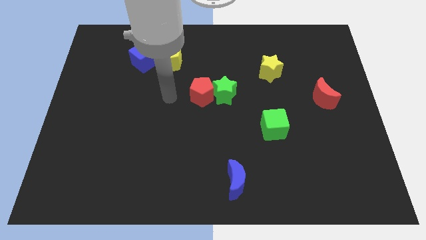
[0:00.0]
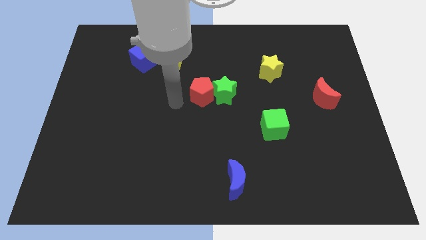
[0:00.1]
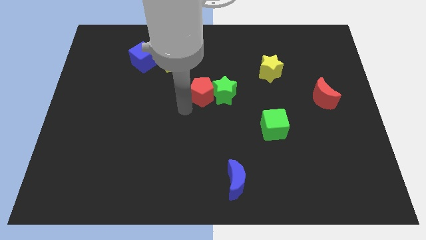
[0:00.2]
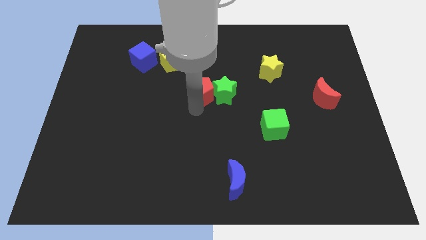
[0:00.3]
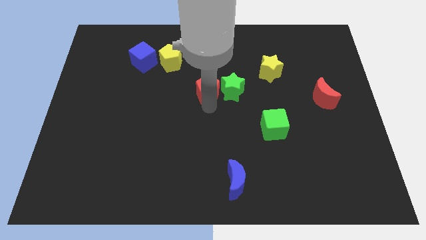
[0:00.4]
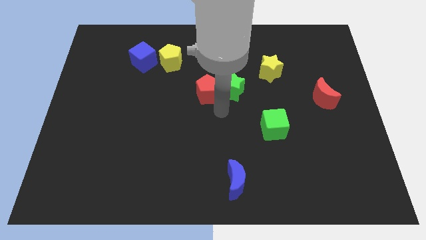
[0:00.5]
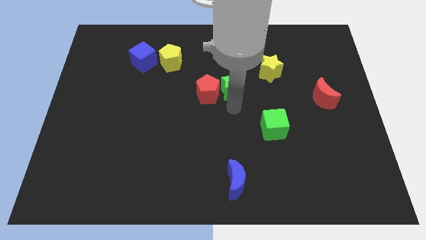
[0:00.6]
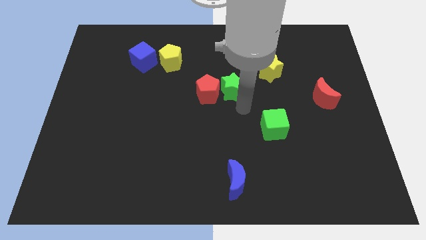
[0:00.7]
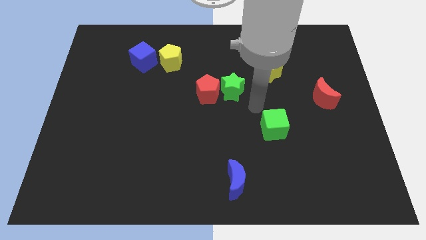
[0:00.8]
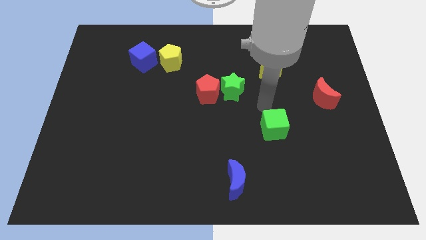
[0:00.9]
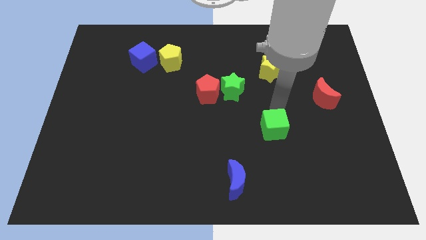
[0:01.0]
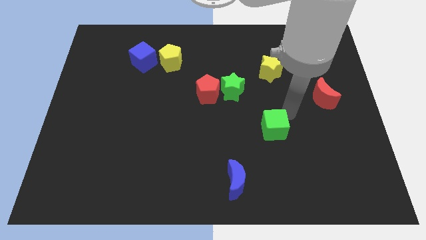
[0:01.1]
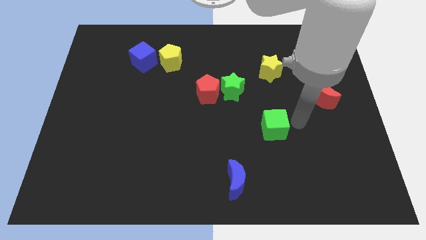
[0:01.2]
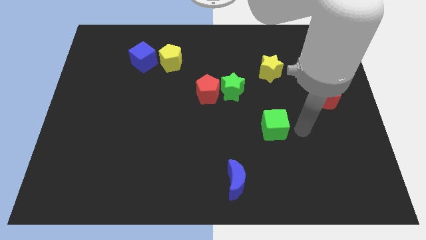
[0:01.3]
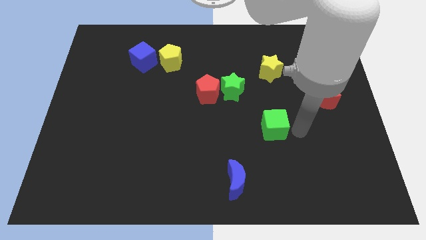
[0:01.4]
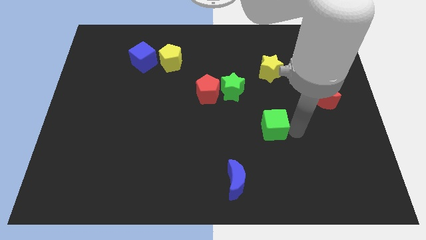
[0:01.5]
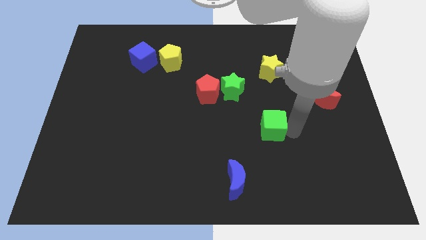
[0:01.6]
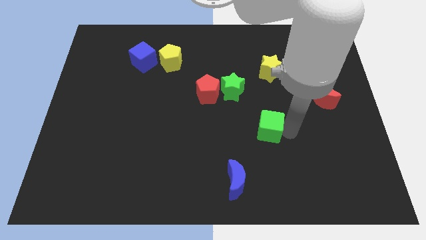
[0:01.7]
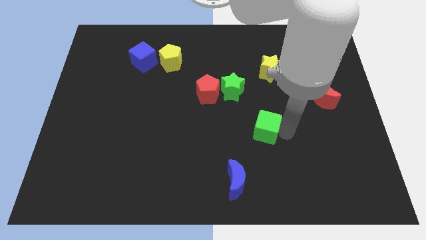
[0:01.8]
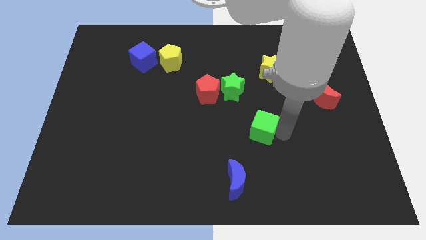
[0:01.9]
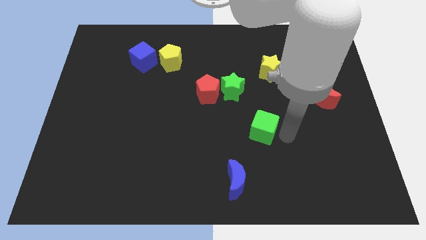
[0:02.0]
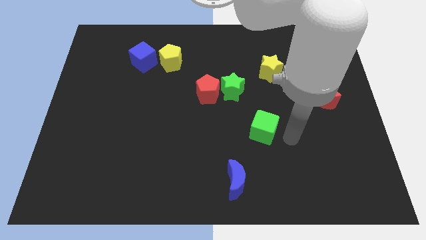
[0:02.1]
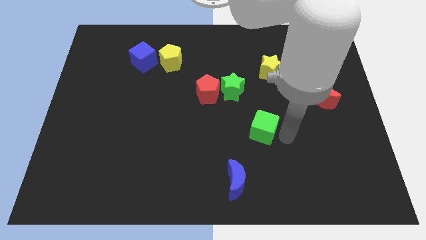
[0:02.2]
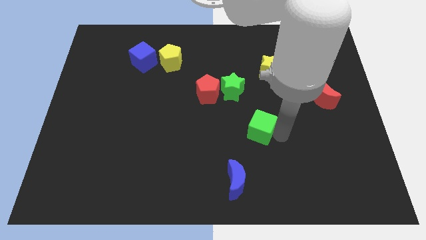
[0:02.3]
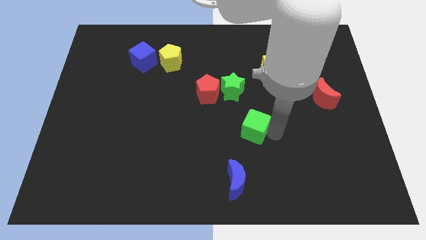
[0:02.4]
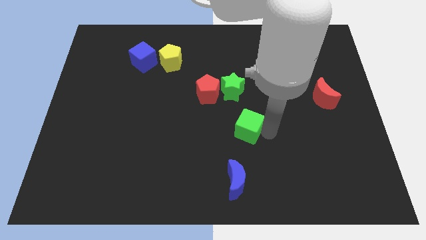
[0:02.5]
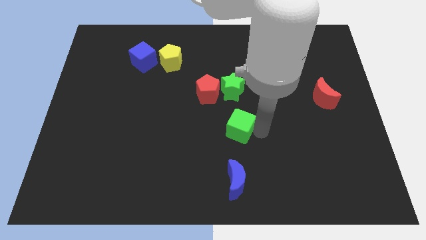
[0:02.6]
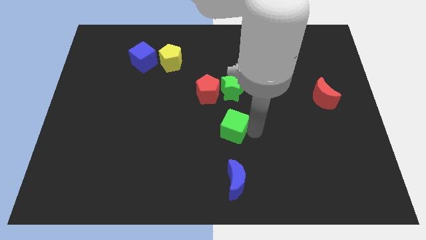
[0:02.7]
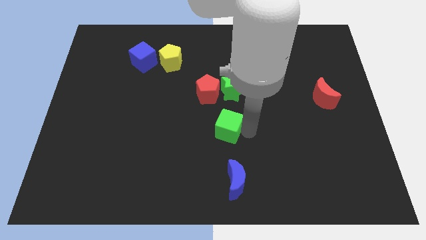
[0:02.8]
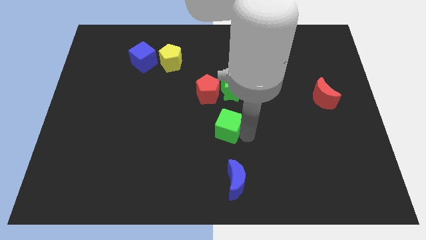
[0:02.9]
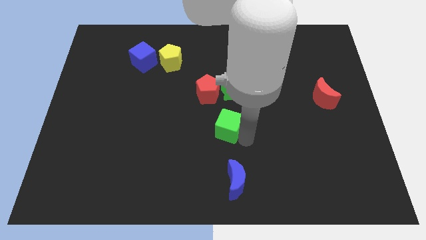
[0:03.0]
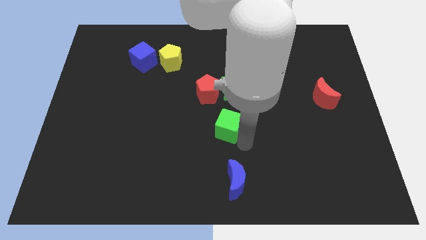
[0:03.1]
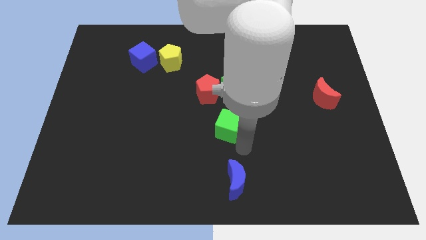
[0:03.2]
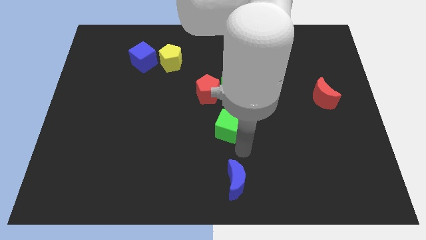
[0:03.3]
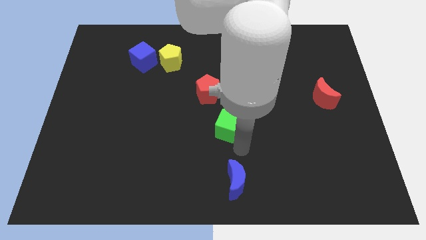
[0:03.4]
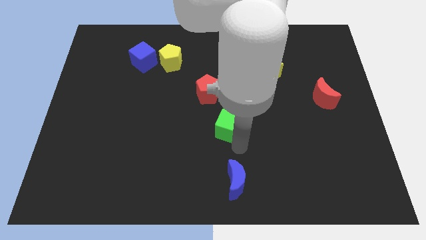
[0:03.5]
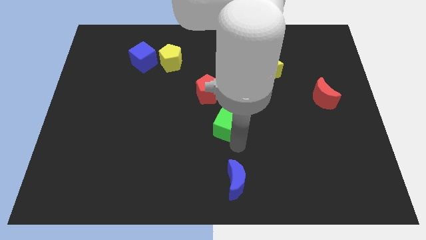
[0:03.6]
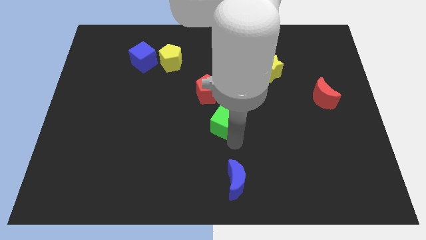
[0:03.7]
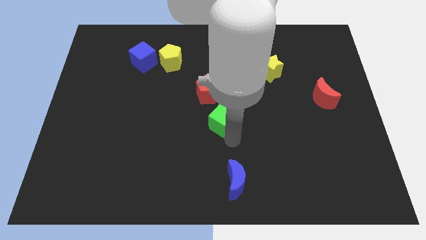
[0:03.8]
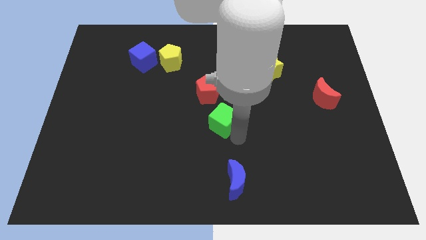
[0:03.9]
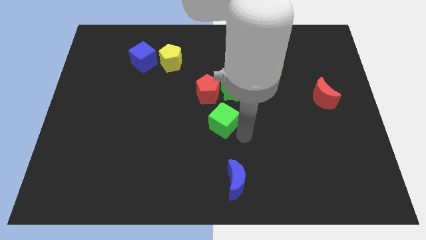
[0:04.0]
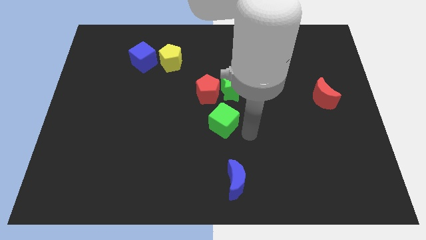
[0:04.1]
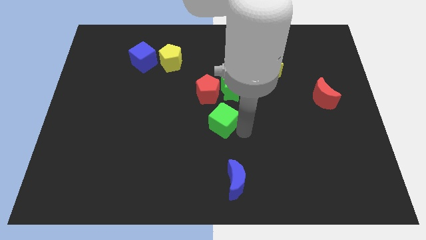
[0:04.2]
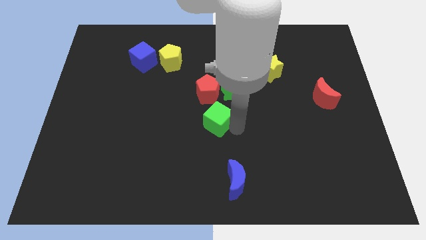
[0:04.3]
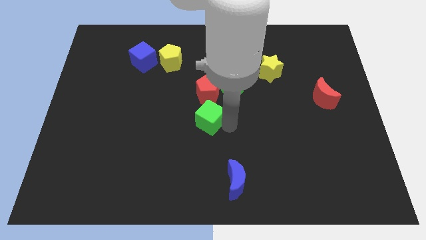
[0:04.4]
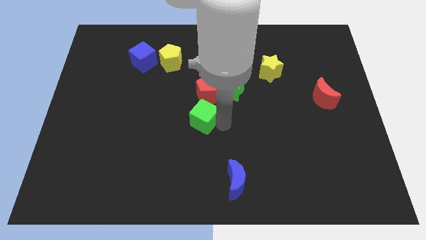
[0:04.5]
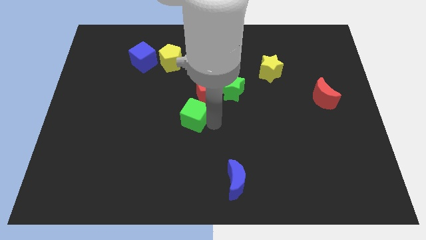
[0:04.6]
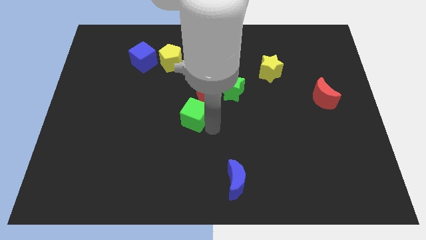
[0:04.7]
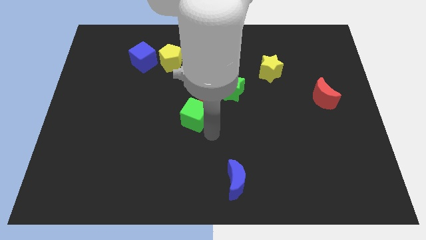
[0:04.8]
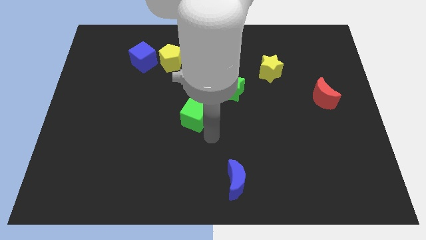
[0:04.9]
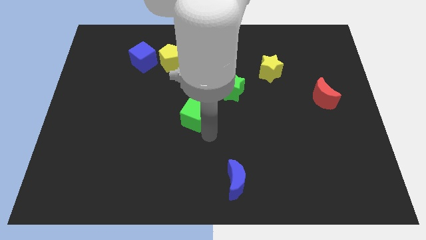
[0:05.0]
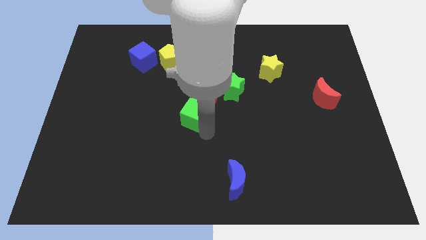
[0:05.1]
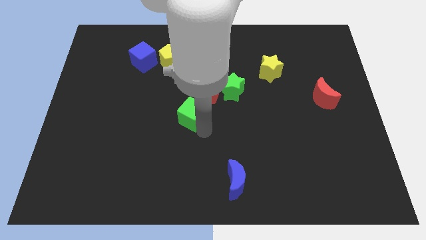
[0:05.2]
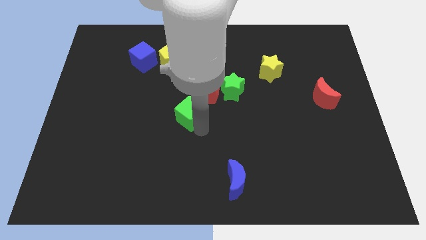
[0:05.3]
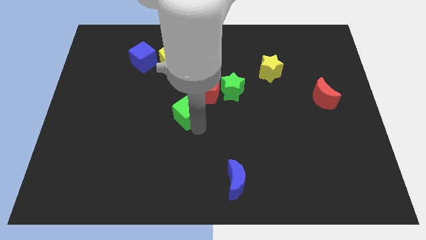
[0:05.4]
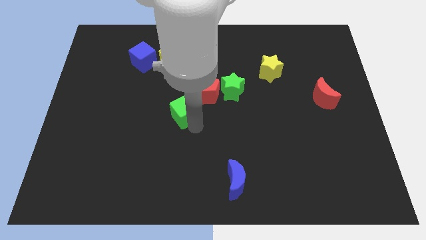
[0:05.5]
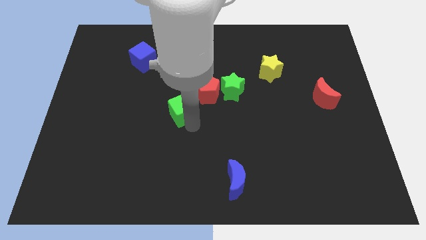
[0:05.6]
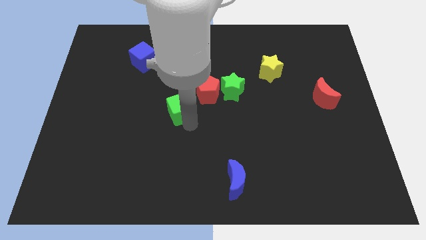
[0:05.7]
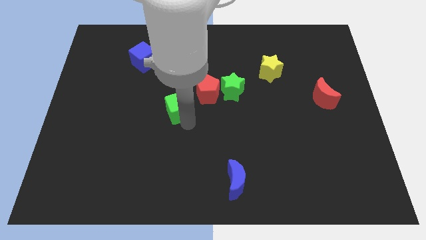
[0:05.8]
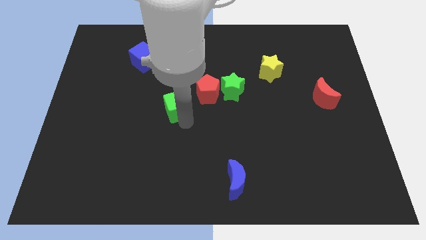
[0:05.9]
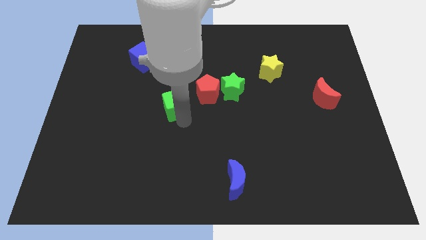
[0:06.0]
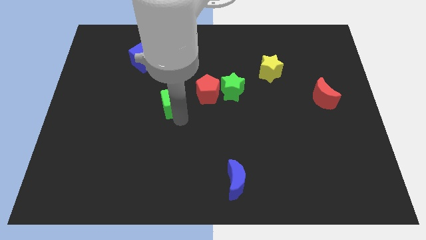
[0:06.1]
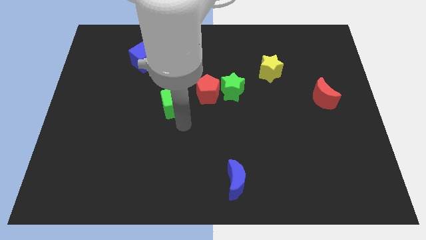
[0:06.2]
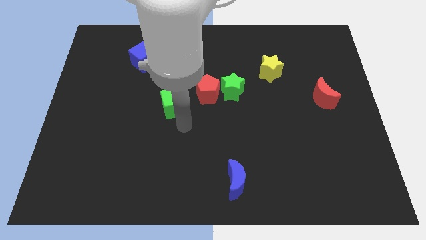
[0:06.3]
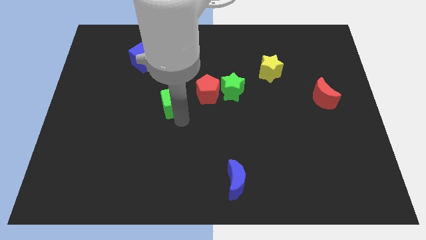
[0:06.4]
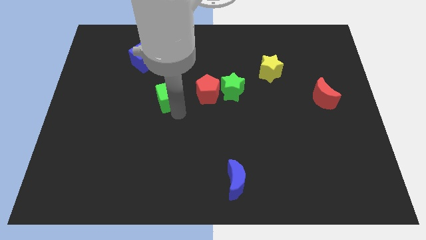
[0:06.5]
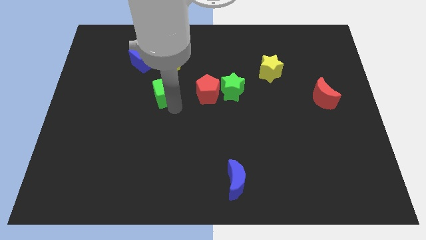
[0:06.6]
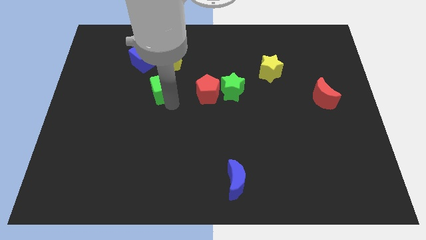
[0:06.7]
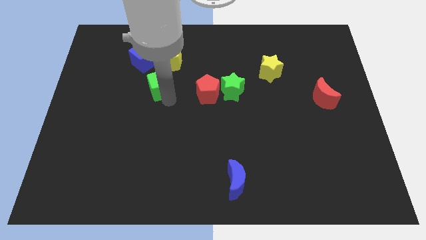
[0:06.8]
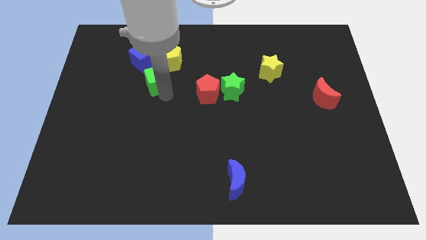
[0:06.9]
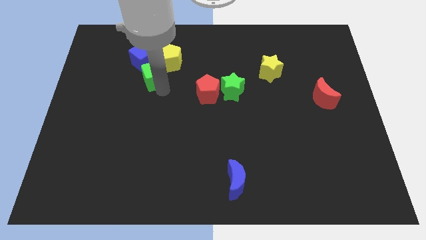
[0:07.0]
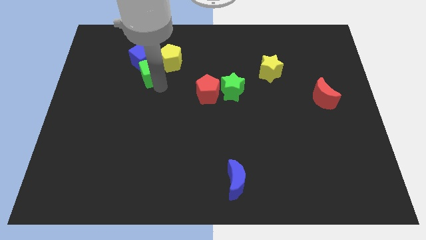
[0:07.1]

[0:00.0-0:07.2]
slide the green cube next to the blue cube

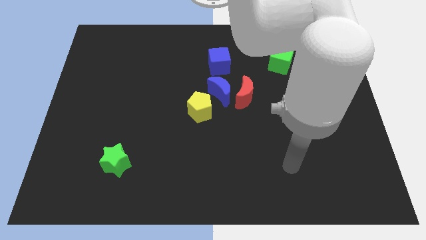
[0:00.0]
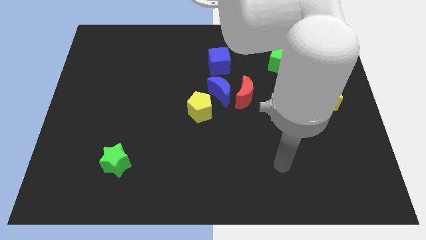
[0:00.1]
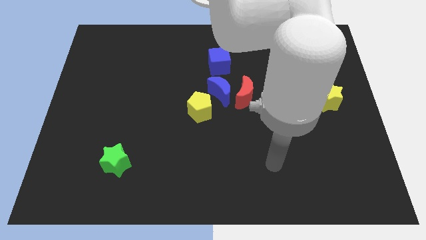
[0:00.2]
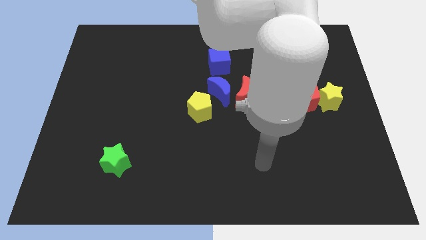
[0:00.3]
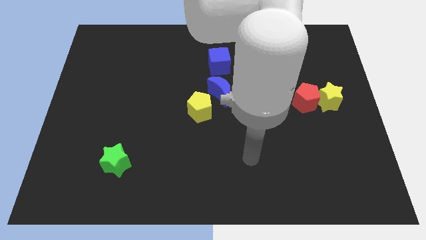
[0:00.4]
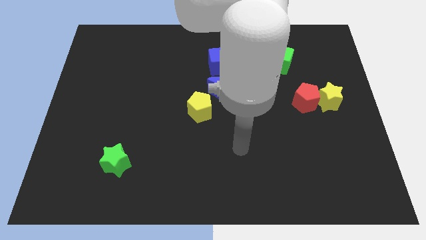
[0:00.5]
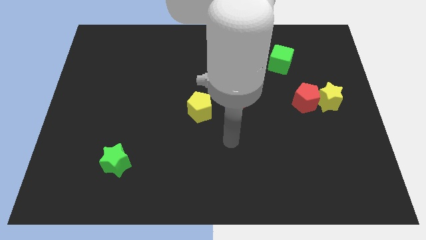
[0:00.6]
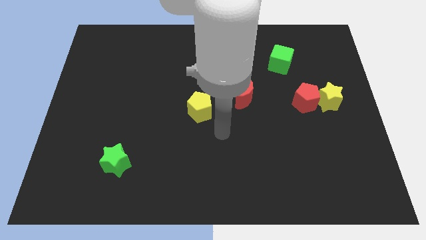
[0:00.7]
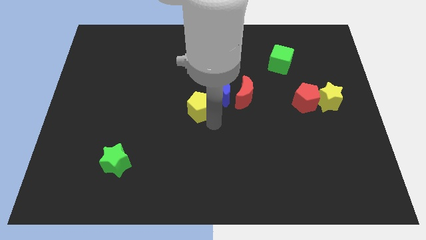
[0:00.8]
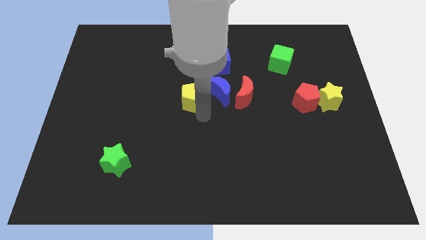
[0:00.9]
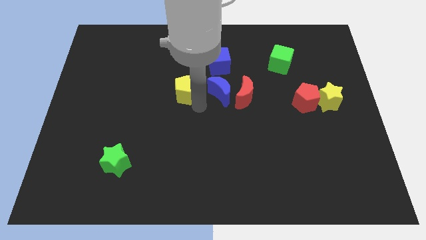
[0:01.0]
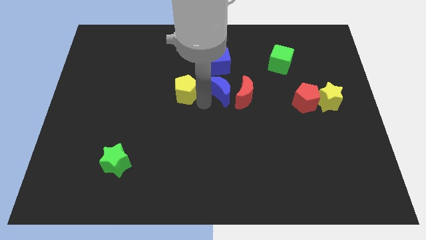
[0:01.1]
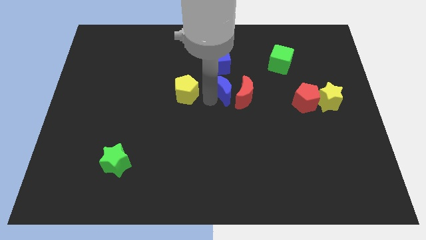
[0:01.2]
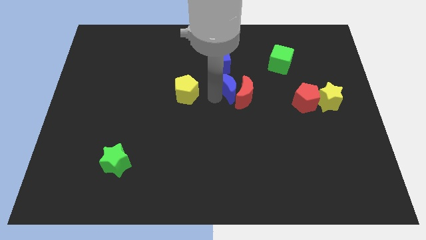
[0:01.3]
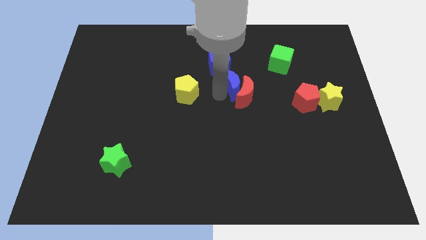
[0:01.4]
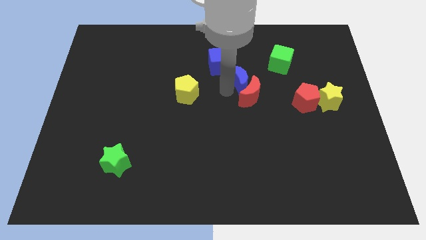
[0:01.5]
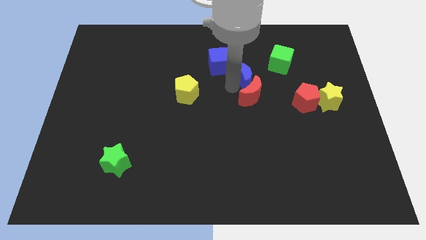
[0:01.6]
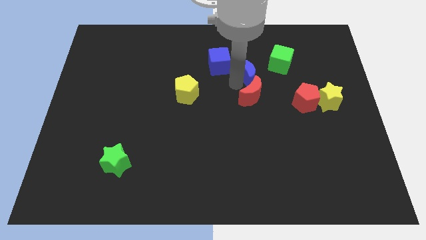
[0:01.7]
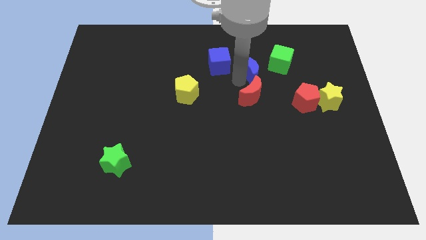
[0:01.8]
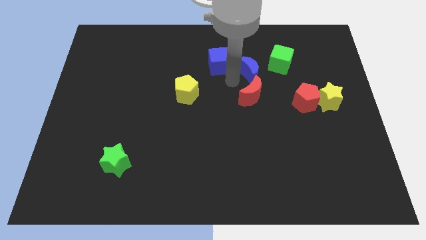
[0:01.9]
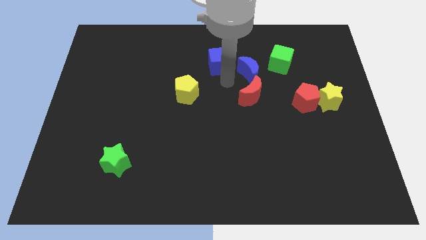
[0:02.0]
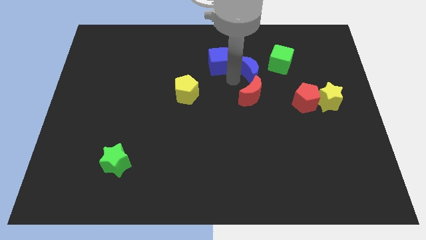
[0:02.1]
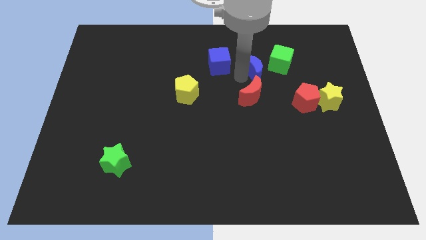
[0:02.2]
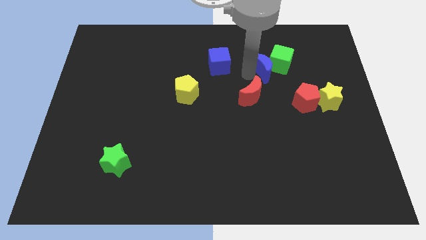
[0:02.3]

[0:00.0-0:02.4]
move the blue moon to the green cube
